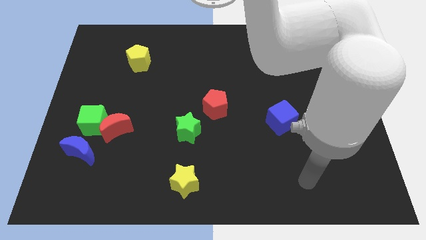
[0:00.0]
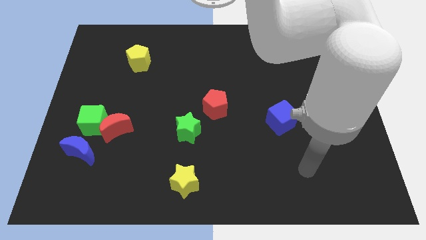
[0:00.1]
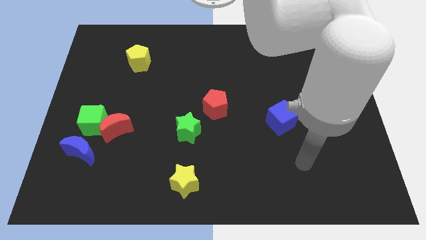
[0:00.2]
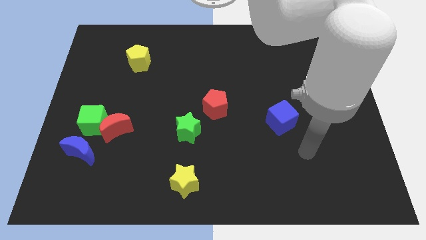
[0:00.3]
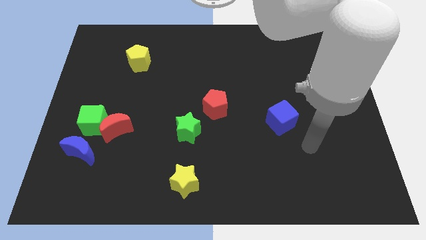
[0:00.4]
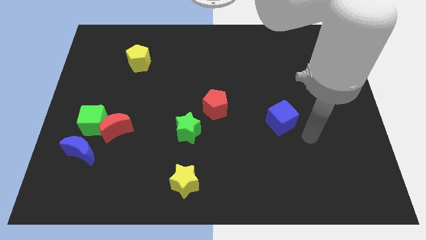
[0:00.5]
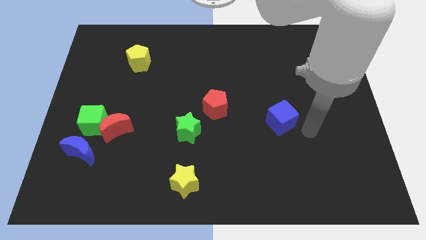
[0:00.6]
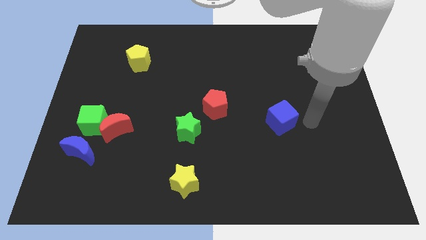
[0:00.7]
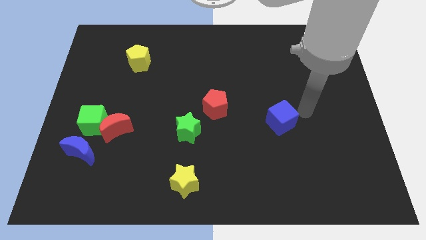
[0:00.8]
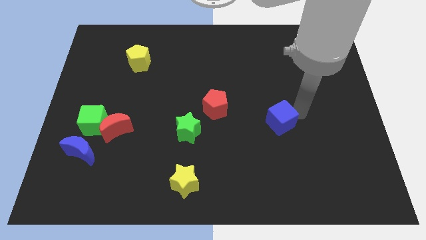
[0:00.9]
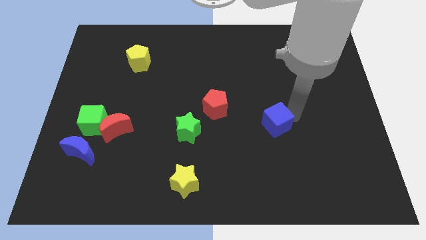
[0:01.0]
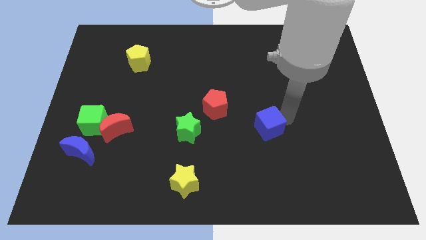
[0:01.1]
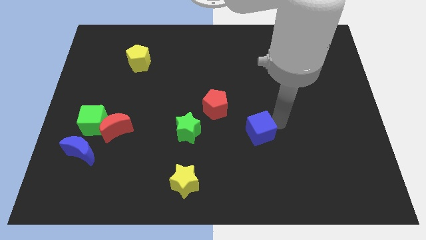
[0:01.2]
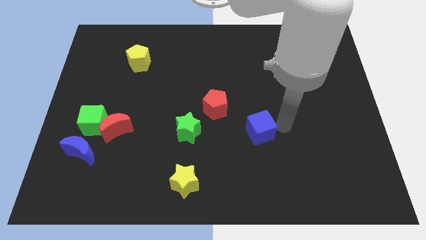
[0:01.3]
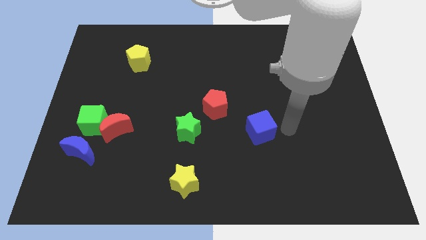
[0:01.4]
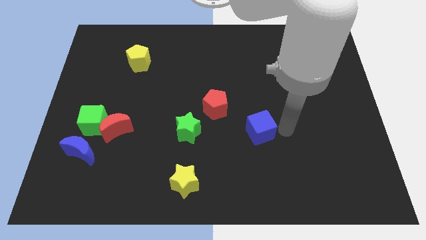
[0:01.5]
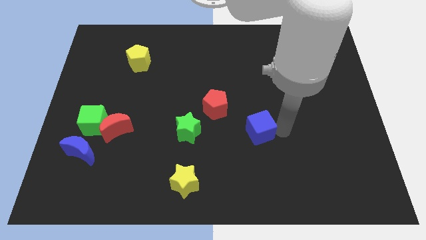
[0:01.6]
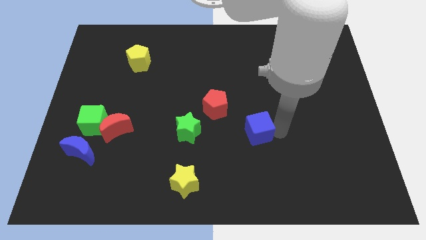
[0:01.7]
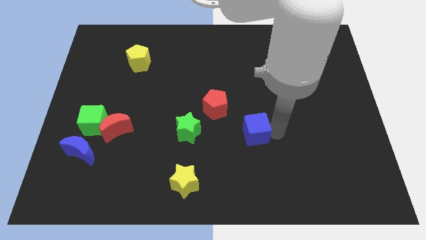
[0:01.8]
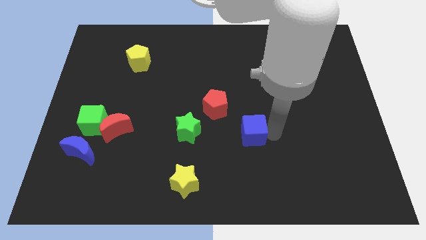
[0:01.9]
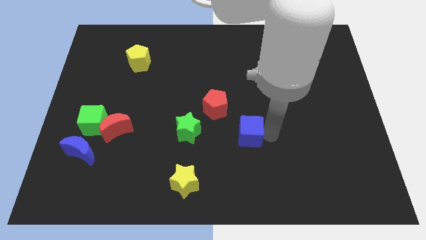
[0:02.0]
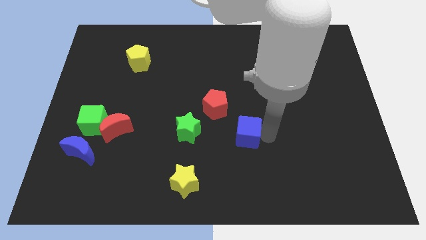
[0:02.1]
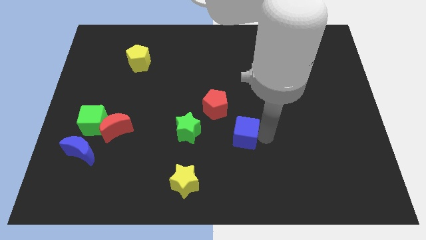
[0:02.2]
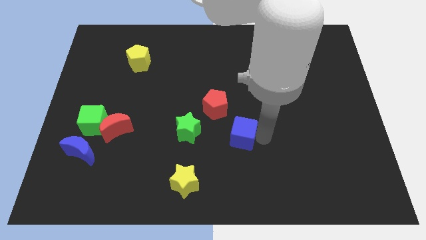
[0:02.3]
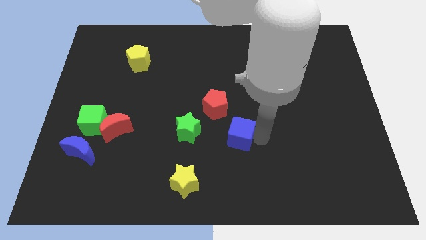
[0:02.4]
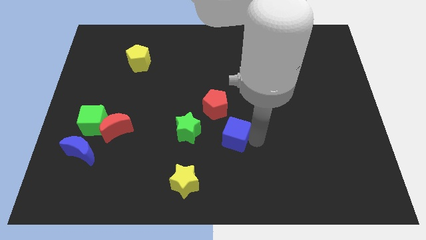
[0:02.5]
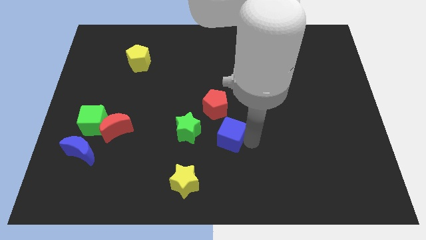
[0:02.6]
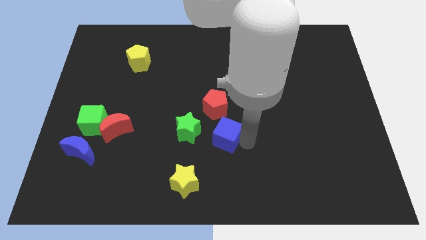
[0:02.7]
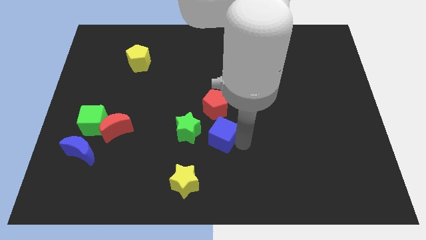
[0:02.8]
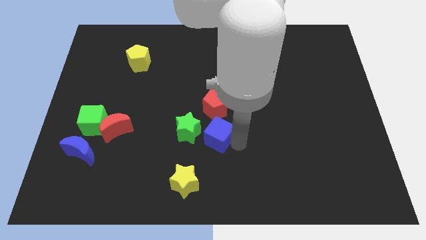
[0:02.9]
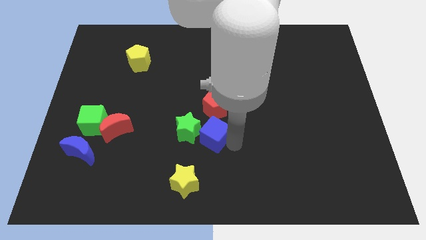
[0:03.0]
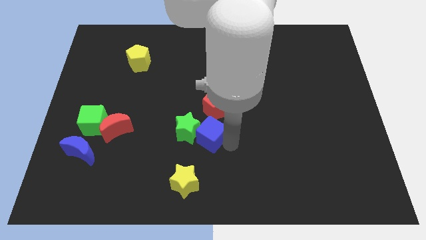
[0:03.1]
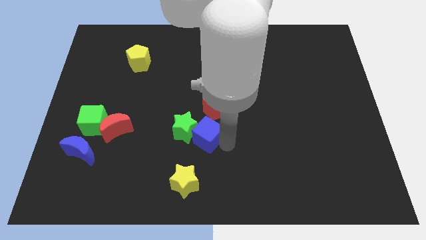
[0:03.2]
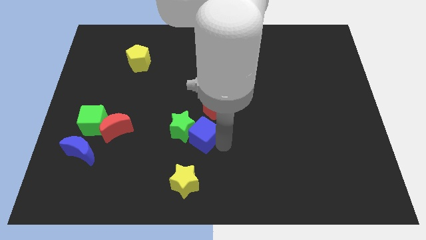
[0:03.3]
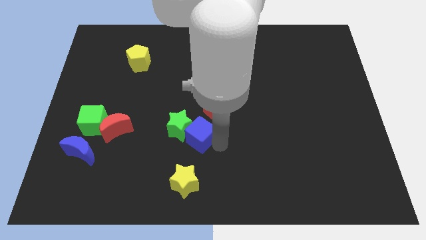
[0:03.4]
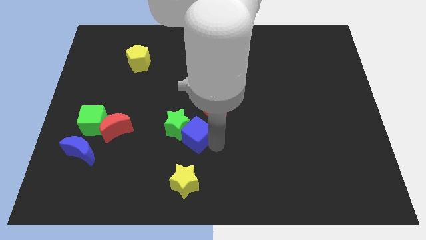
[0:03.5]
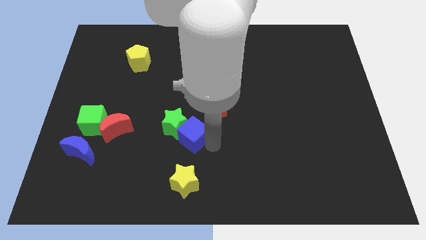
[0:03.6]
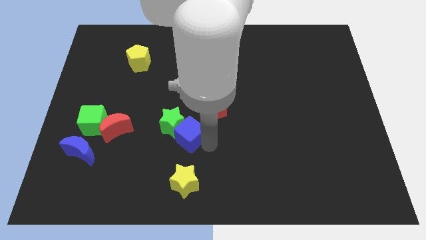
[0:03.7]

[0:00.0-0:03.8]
move the blue cube to the left

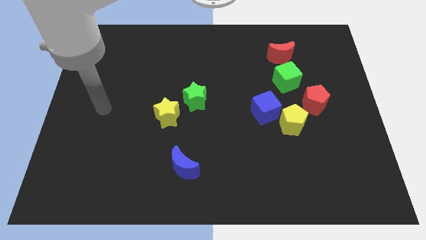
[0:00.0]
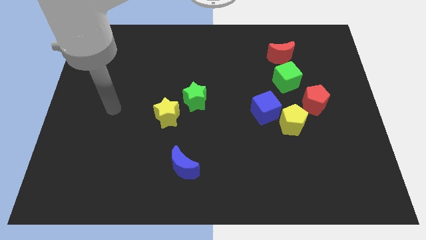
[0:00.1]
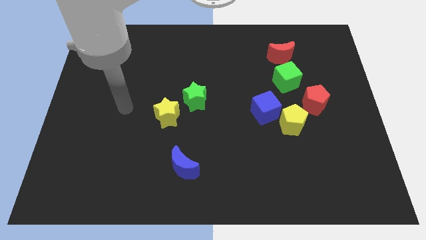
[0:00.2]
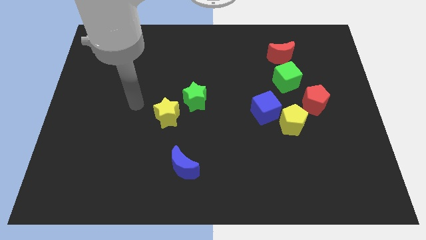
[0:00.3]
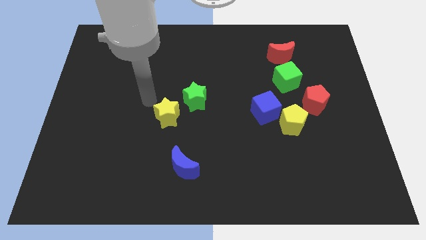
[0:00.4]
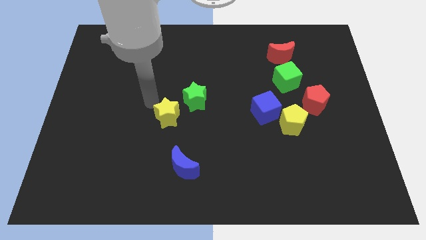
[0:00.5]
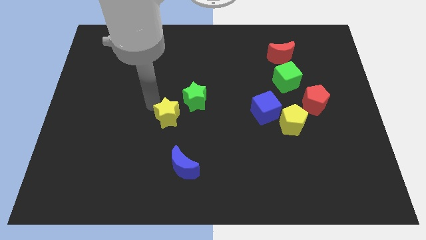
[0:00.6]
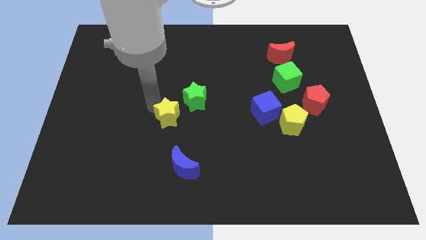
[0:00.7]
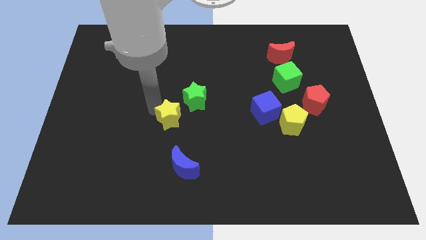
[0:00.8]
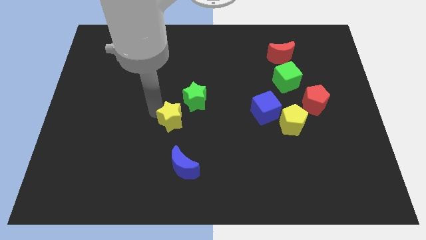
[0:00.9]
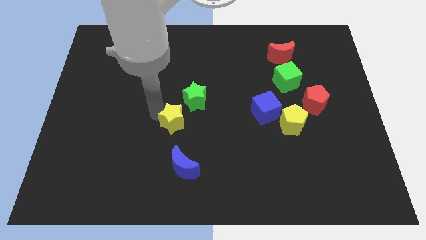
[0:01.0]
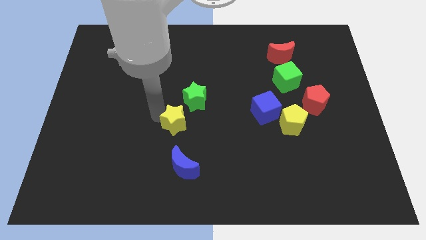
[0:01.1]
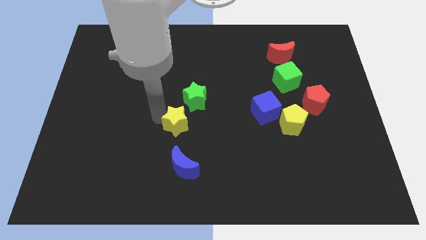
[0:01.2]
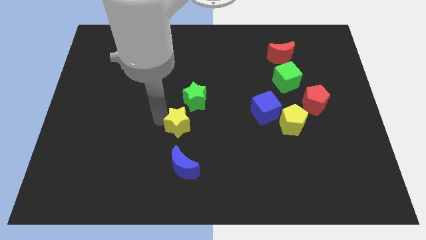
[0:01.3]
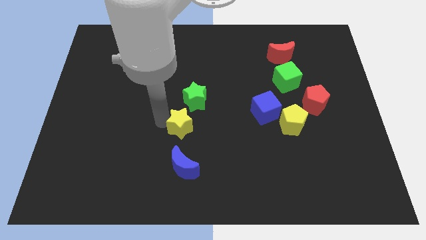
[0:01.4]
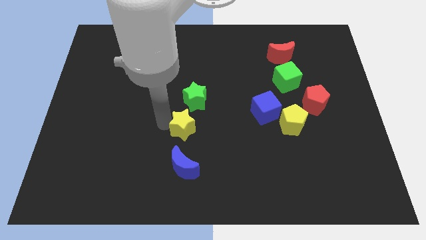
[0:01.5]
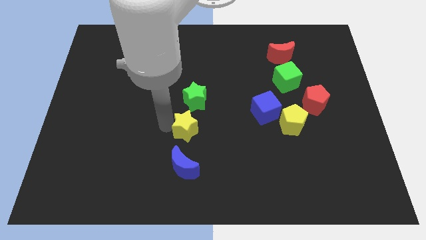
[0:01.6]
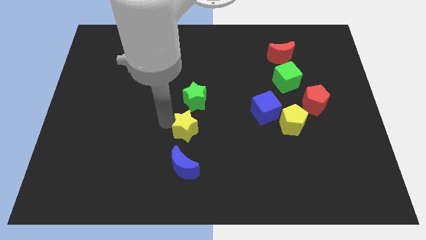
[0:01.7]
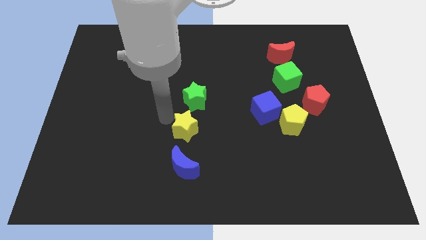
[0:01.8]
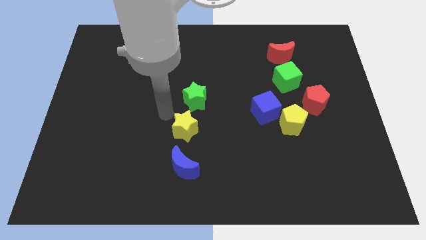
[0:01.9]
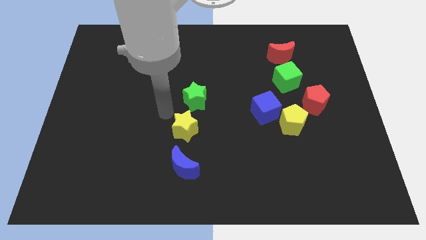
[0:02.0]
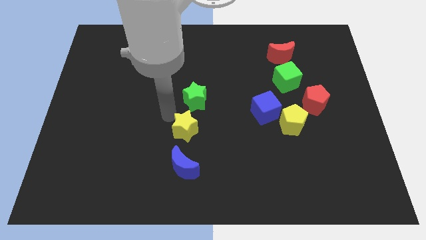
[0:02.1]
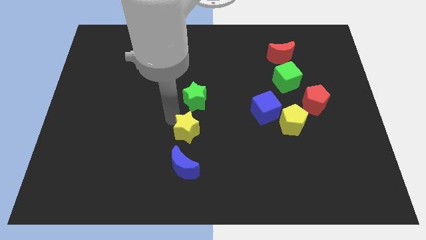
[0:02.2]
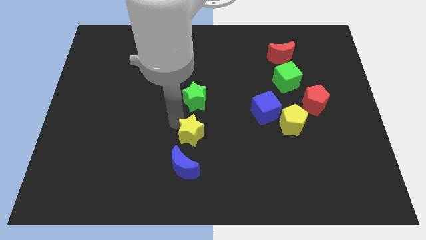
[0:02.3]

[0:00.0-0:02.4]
move the yellow star a little bit diagonally down and to the right

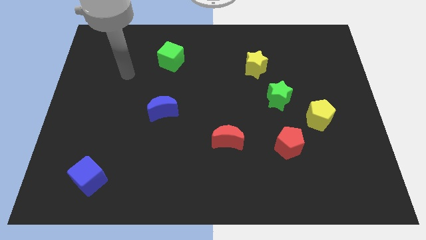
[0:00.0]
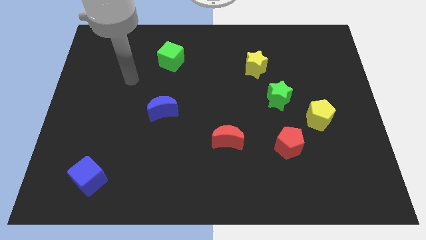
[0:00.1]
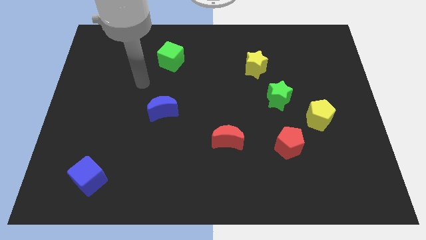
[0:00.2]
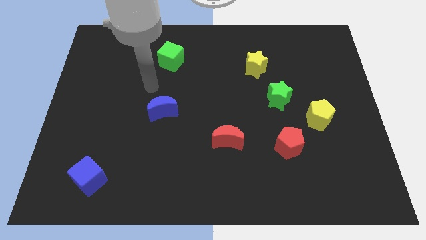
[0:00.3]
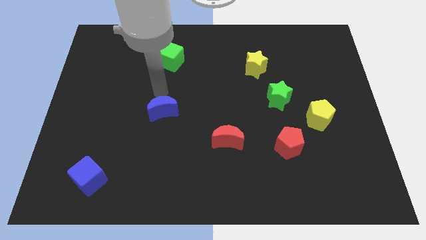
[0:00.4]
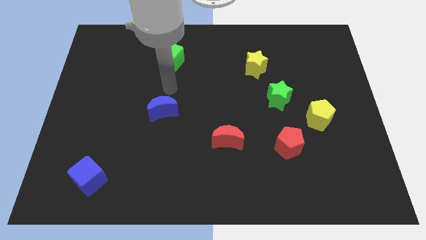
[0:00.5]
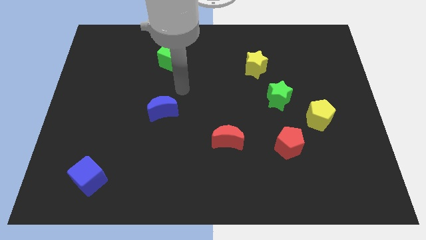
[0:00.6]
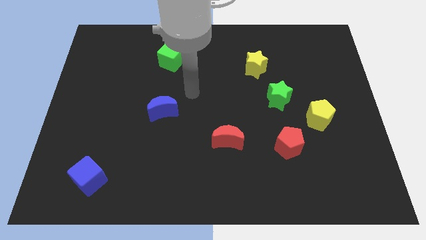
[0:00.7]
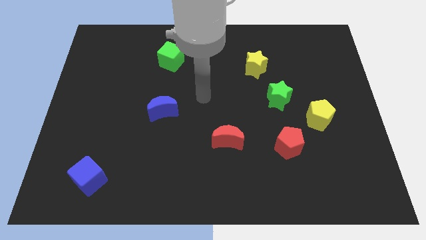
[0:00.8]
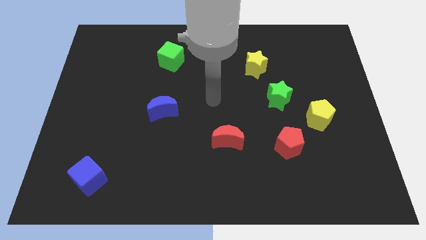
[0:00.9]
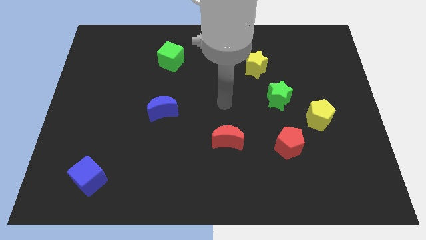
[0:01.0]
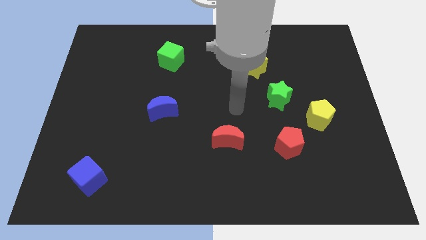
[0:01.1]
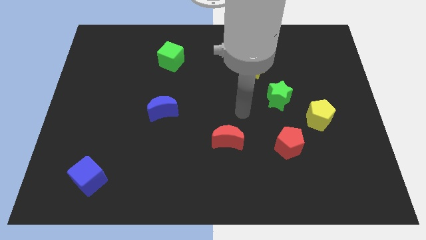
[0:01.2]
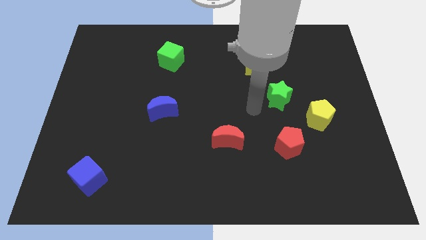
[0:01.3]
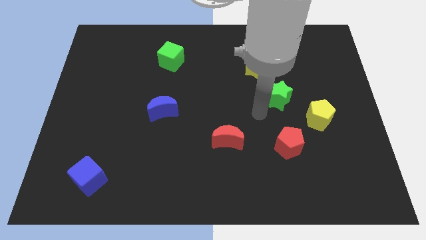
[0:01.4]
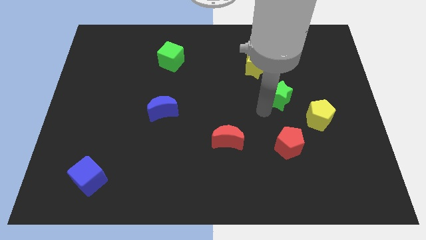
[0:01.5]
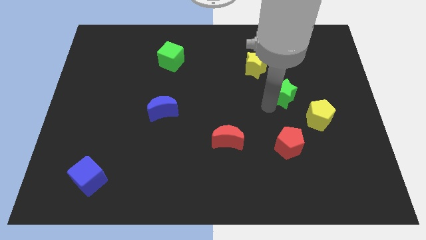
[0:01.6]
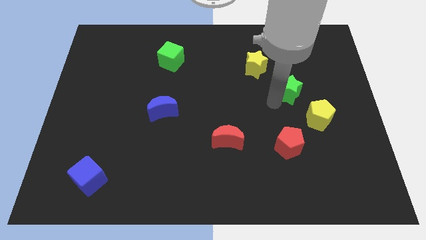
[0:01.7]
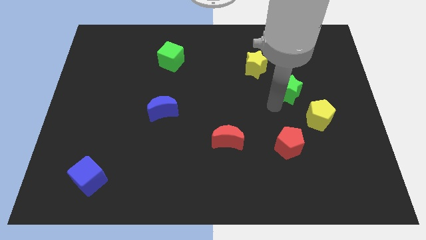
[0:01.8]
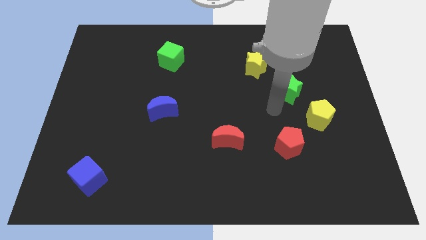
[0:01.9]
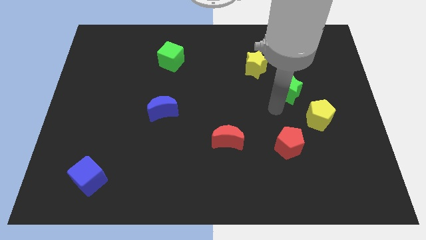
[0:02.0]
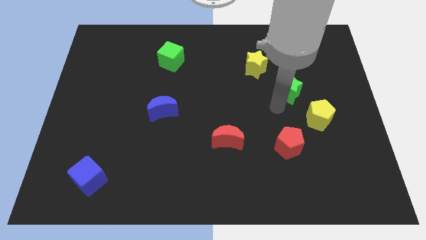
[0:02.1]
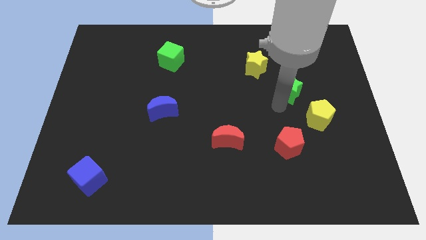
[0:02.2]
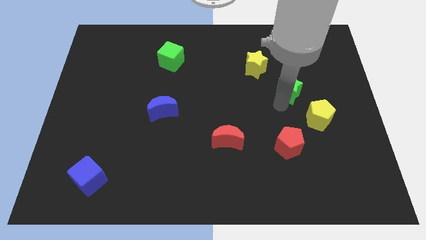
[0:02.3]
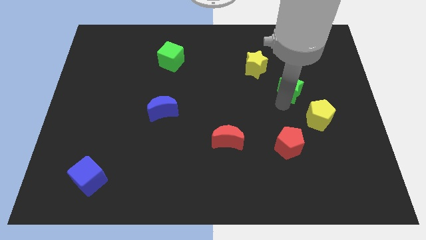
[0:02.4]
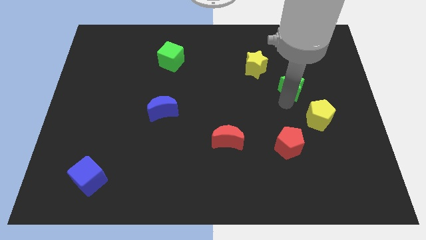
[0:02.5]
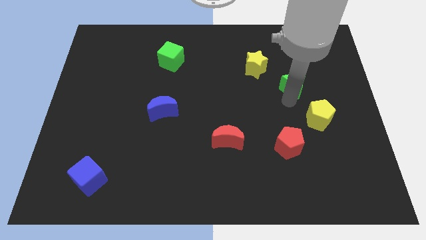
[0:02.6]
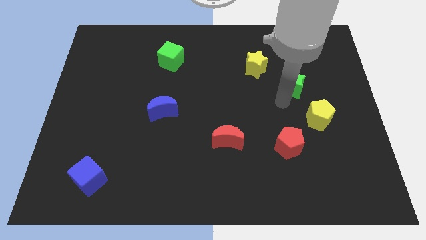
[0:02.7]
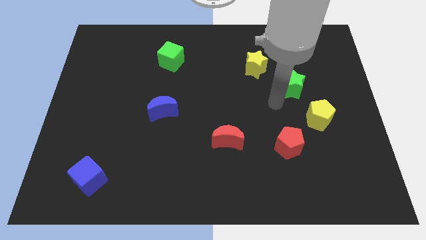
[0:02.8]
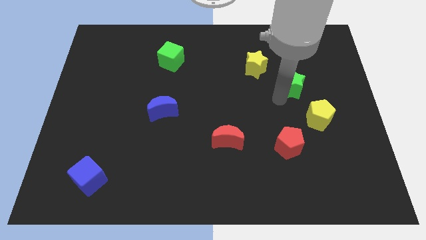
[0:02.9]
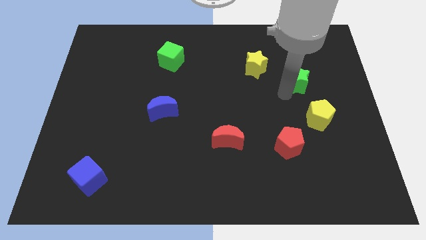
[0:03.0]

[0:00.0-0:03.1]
slide the green star a little bit up and right
